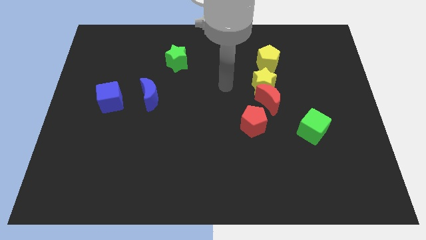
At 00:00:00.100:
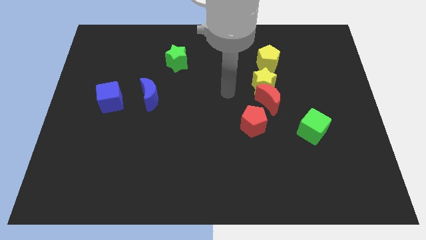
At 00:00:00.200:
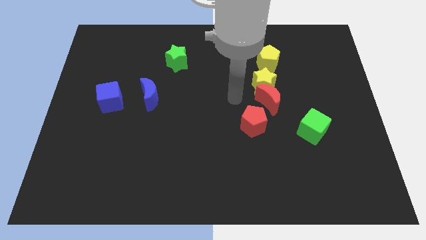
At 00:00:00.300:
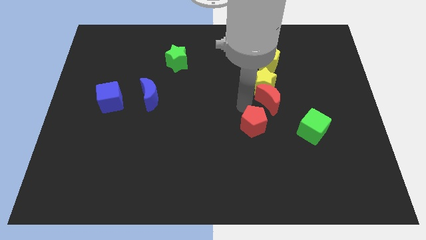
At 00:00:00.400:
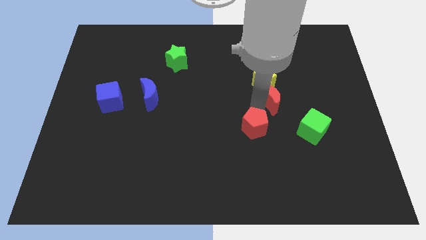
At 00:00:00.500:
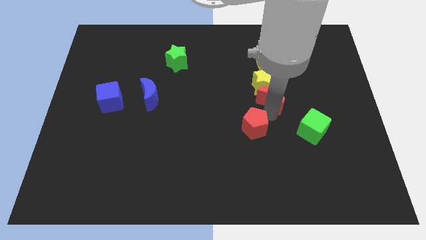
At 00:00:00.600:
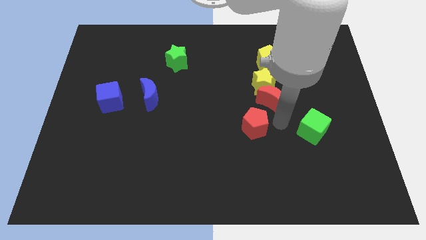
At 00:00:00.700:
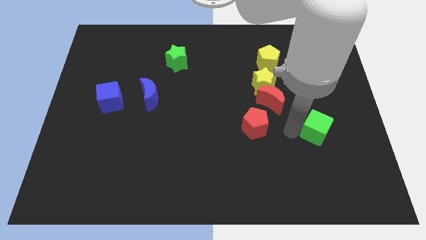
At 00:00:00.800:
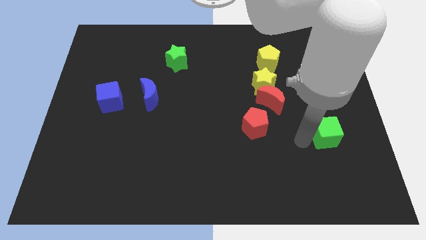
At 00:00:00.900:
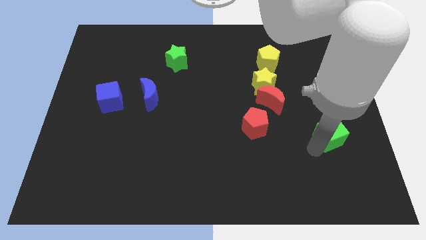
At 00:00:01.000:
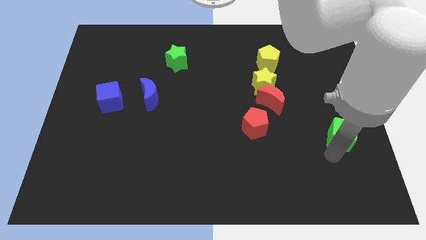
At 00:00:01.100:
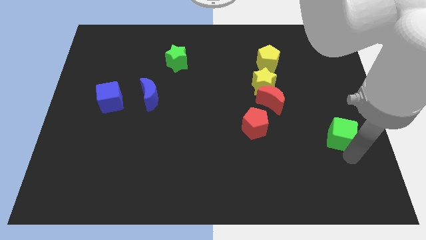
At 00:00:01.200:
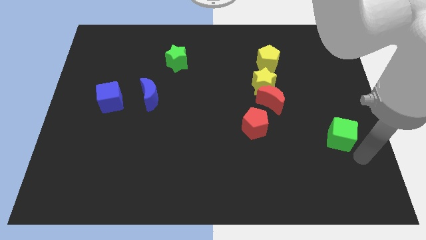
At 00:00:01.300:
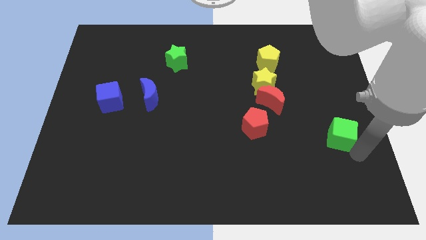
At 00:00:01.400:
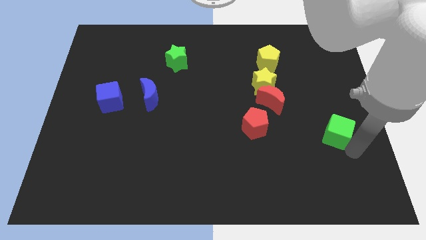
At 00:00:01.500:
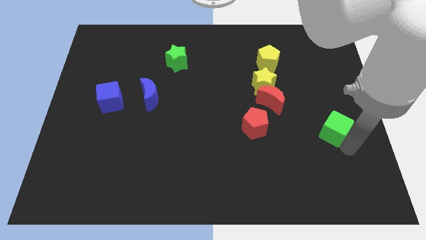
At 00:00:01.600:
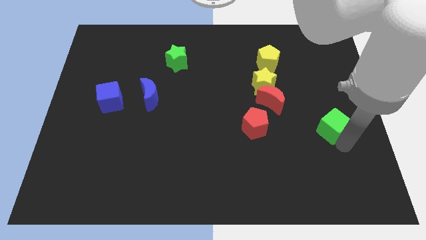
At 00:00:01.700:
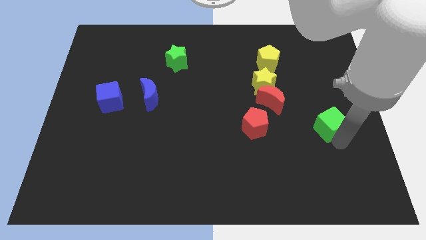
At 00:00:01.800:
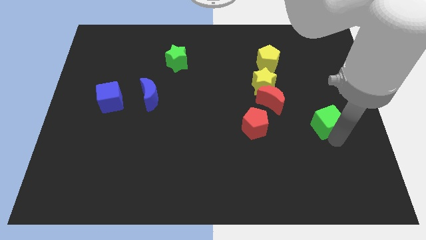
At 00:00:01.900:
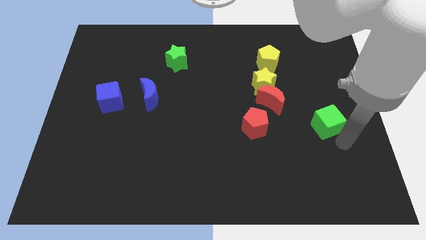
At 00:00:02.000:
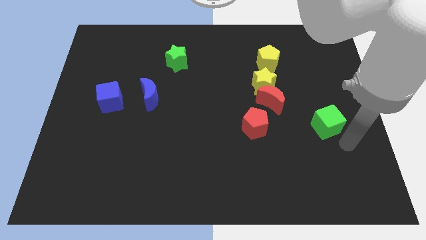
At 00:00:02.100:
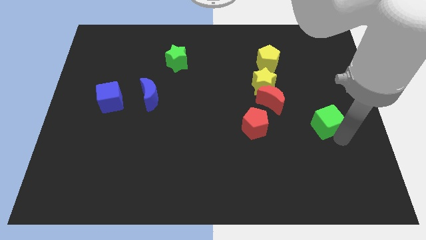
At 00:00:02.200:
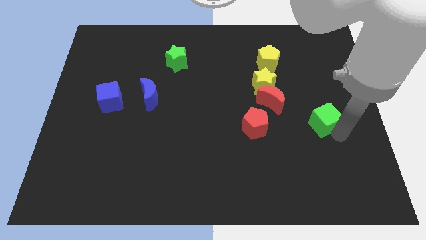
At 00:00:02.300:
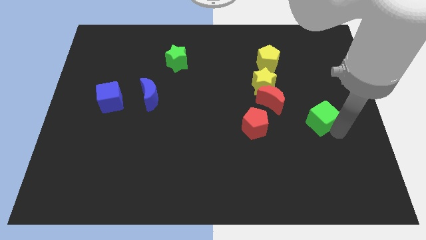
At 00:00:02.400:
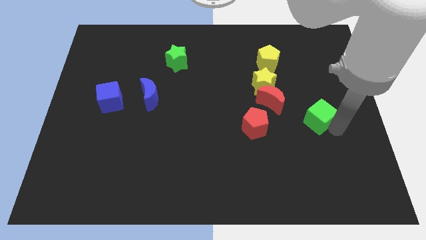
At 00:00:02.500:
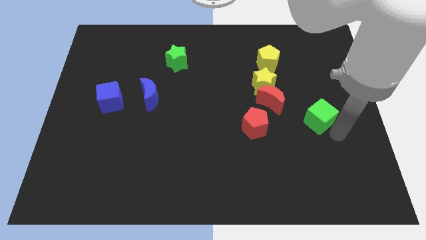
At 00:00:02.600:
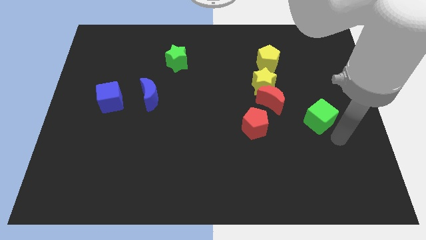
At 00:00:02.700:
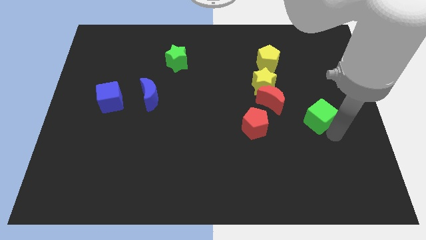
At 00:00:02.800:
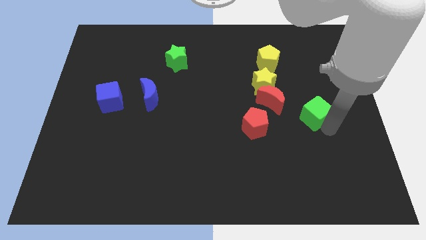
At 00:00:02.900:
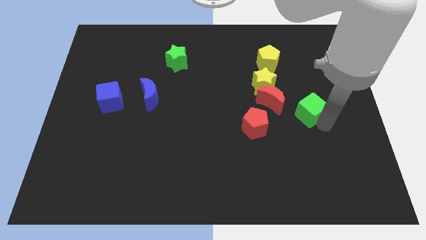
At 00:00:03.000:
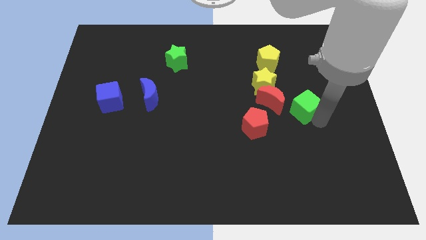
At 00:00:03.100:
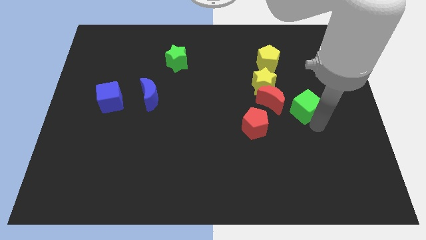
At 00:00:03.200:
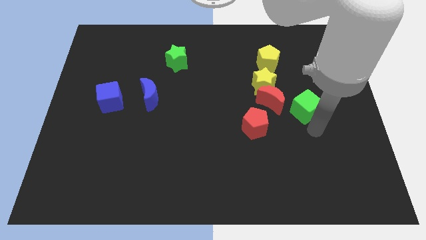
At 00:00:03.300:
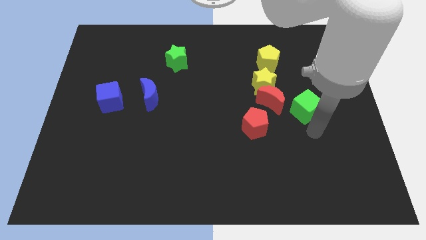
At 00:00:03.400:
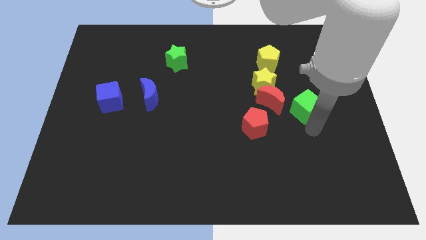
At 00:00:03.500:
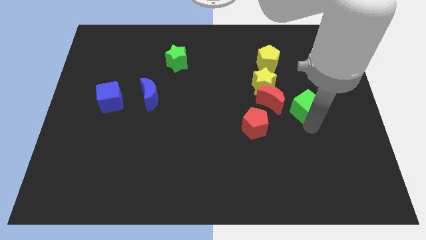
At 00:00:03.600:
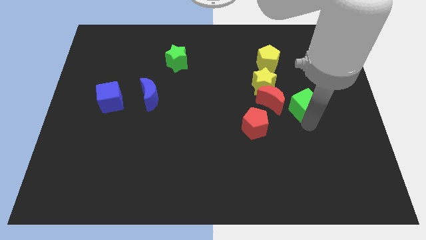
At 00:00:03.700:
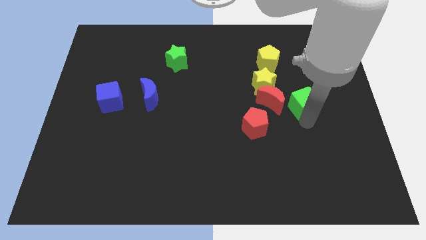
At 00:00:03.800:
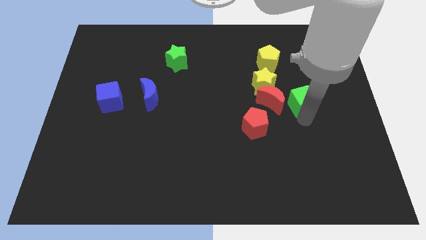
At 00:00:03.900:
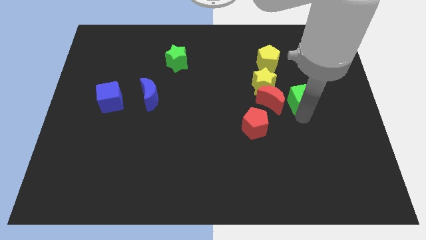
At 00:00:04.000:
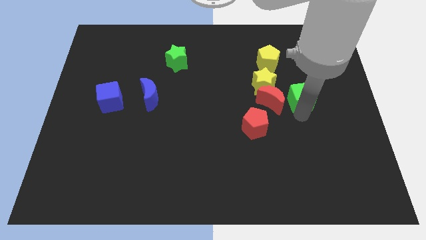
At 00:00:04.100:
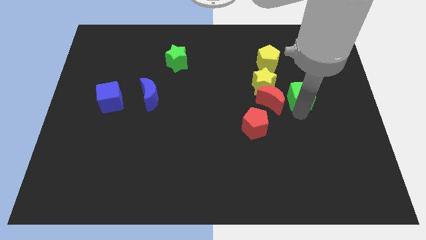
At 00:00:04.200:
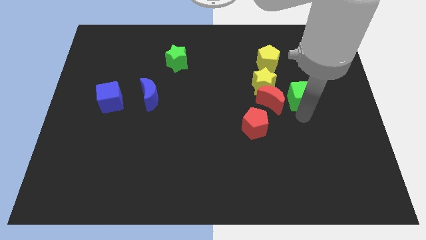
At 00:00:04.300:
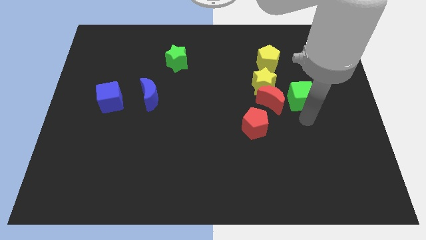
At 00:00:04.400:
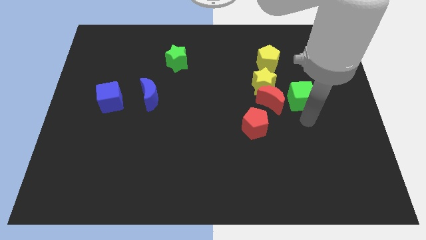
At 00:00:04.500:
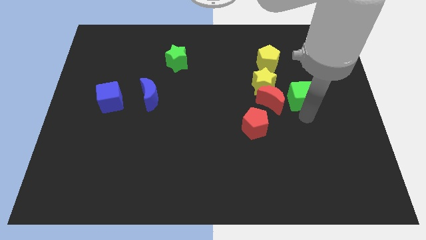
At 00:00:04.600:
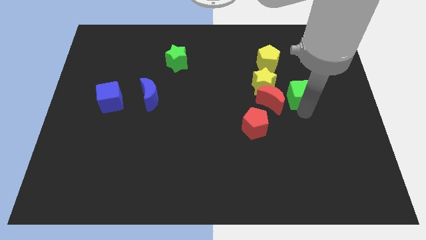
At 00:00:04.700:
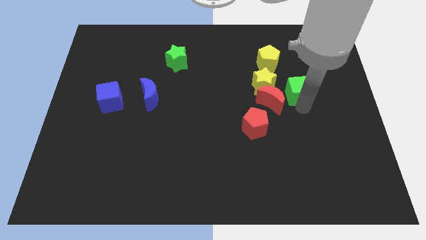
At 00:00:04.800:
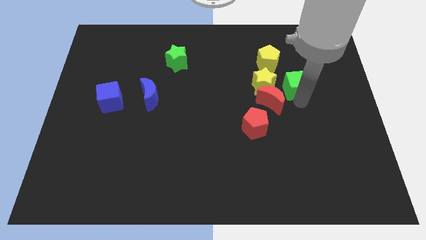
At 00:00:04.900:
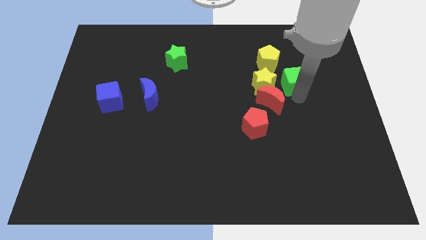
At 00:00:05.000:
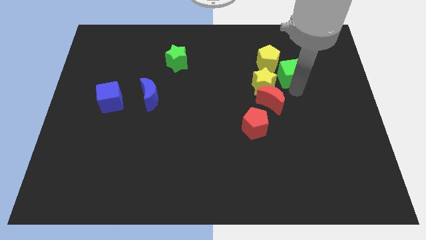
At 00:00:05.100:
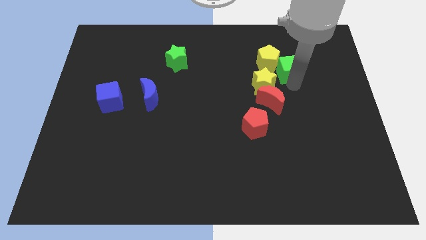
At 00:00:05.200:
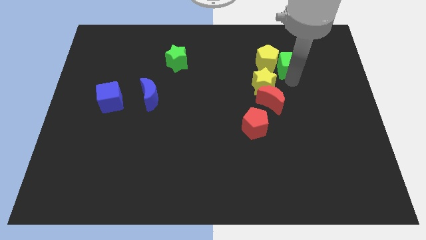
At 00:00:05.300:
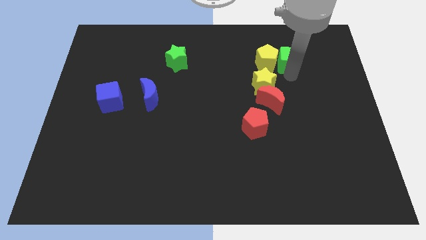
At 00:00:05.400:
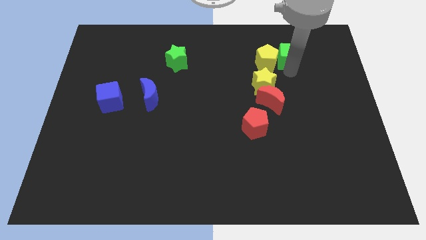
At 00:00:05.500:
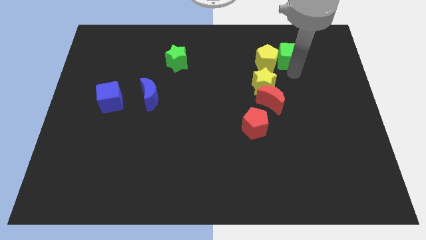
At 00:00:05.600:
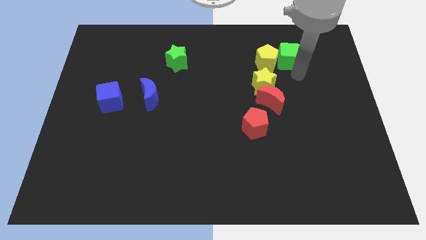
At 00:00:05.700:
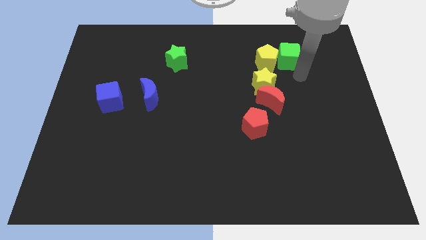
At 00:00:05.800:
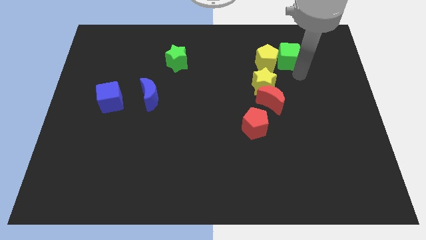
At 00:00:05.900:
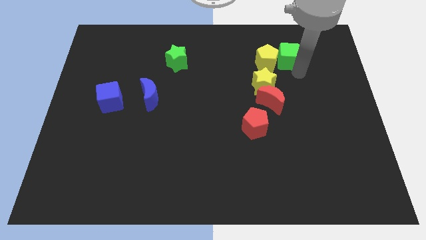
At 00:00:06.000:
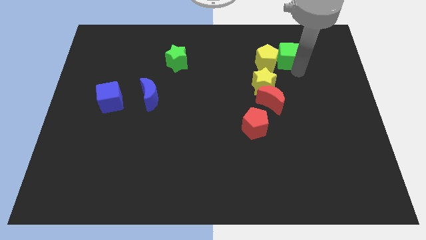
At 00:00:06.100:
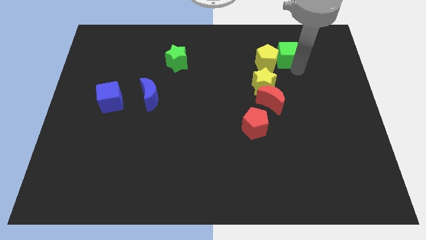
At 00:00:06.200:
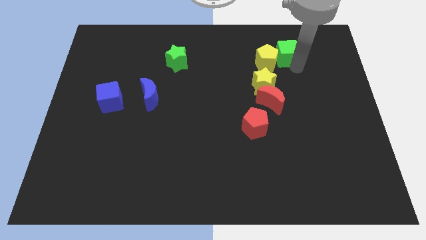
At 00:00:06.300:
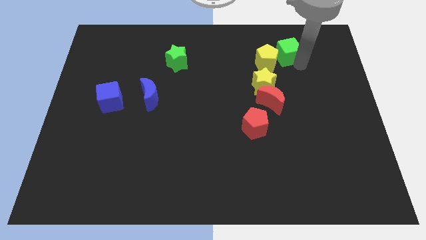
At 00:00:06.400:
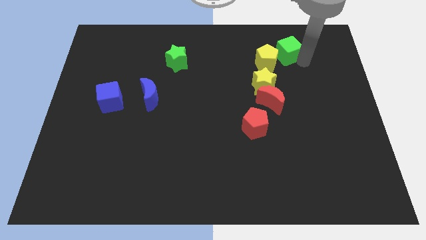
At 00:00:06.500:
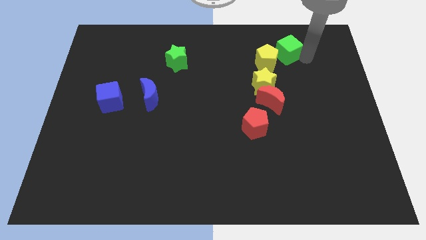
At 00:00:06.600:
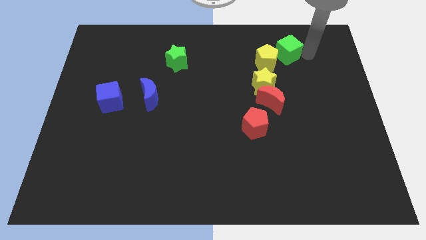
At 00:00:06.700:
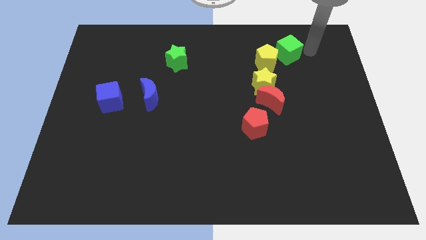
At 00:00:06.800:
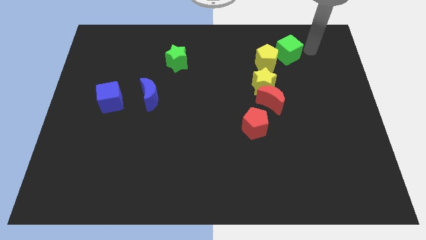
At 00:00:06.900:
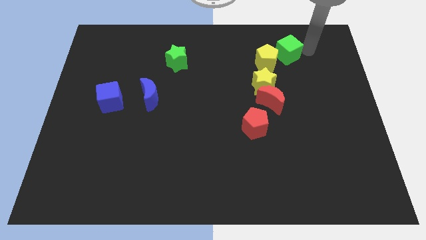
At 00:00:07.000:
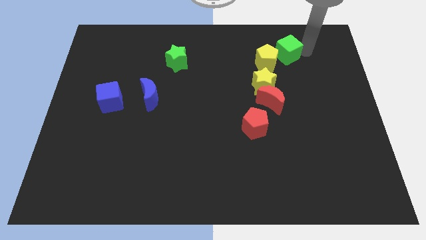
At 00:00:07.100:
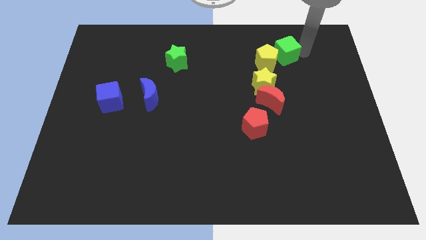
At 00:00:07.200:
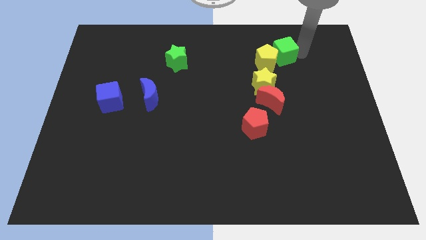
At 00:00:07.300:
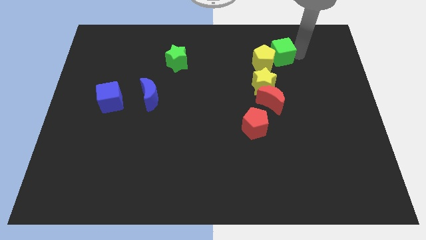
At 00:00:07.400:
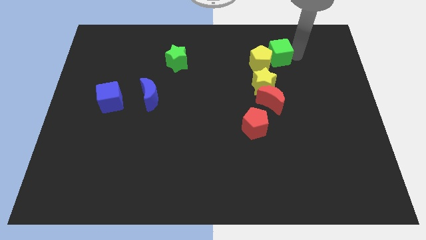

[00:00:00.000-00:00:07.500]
push the green cube to the top side of the yellow star
